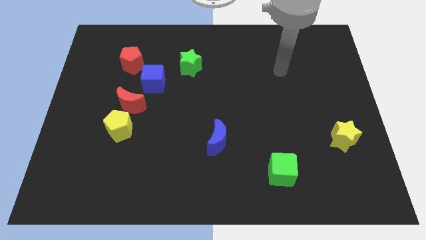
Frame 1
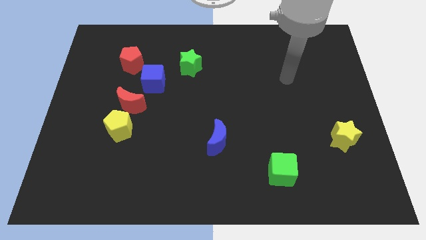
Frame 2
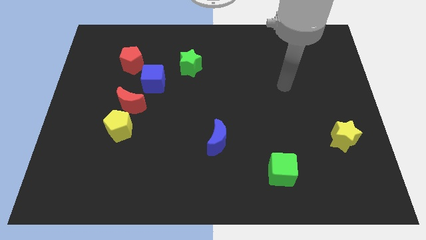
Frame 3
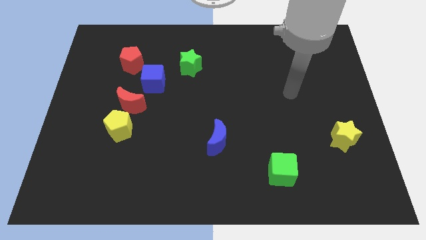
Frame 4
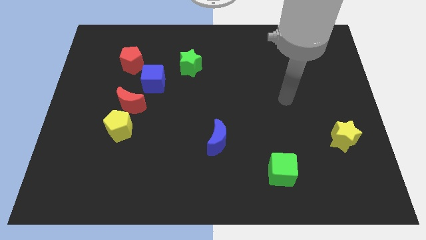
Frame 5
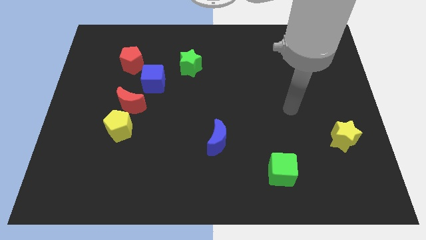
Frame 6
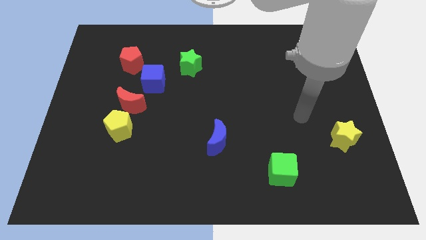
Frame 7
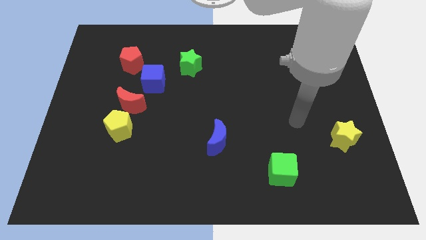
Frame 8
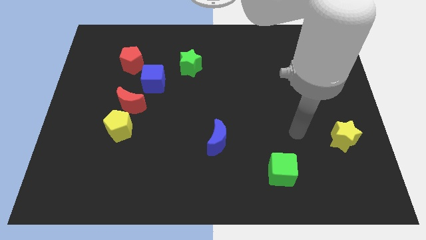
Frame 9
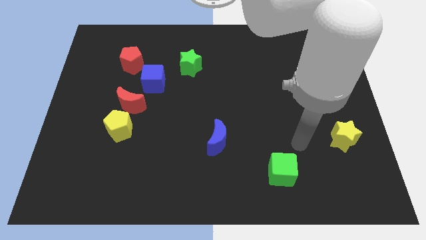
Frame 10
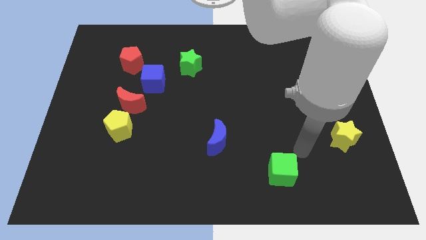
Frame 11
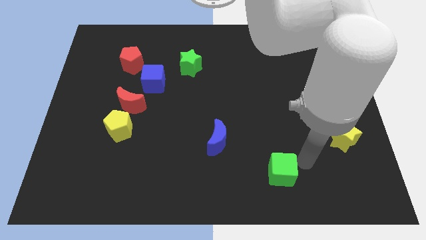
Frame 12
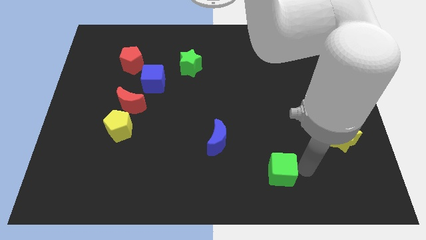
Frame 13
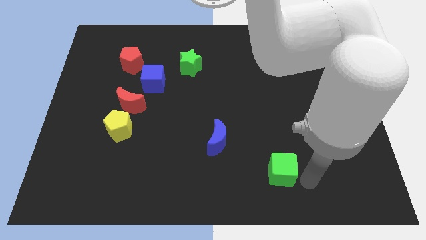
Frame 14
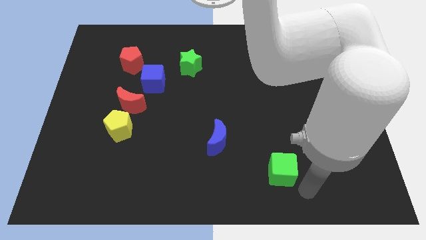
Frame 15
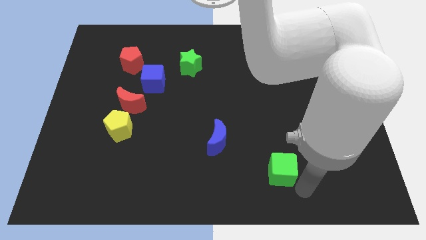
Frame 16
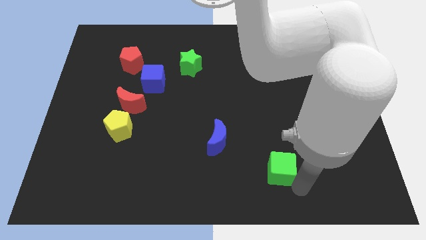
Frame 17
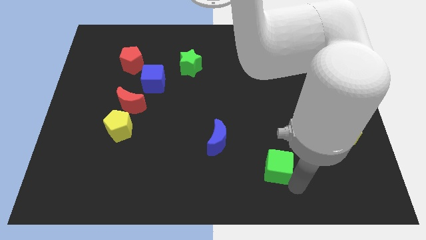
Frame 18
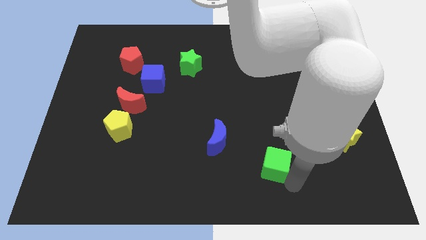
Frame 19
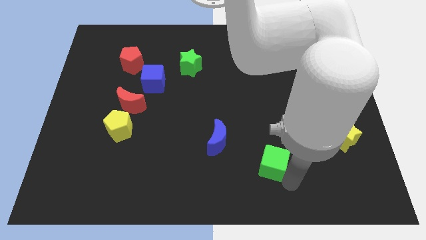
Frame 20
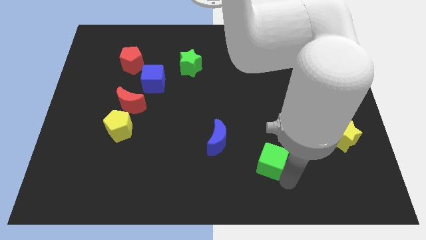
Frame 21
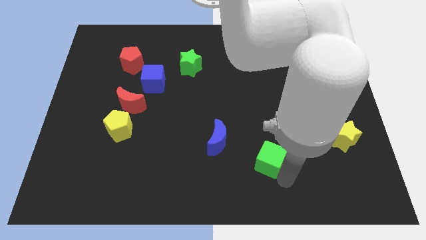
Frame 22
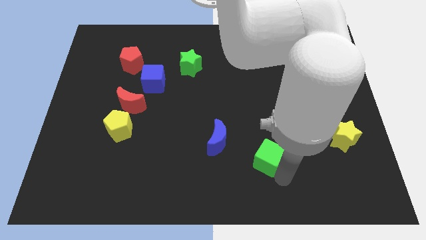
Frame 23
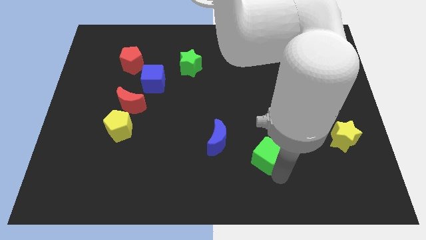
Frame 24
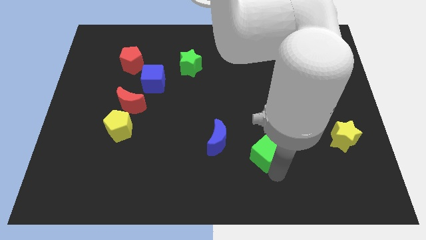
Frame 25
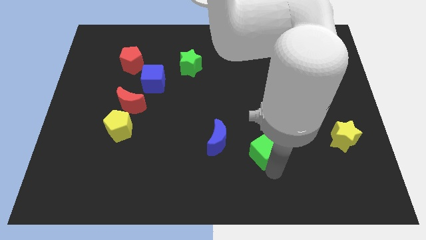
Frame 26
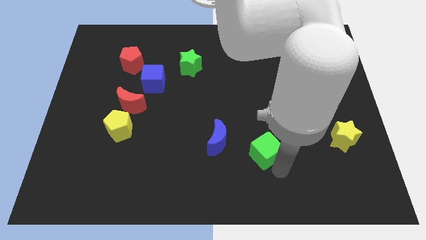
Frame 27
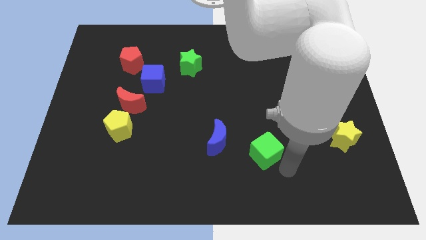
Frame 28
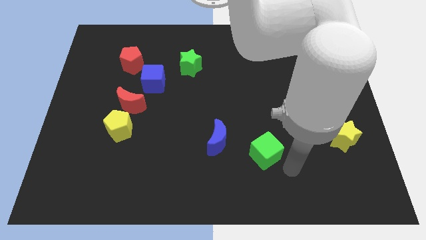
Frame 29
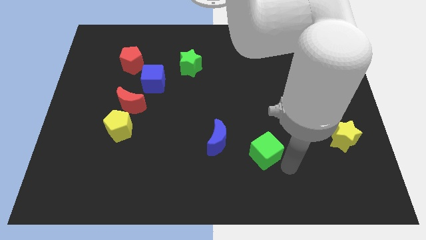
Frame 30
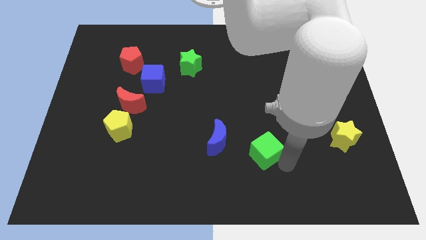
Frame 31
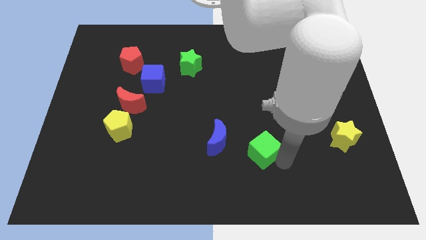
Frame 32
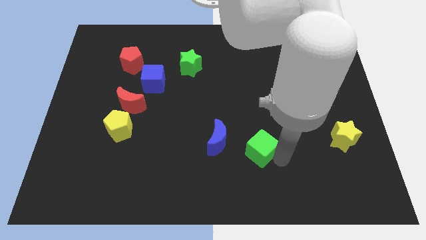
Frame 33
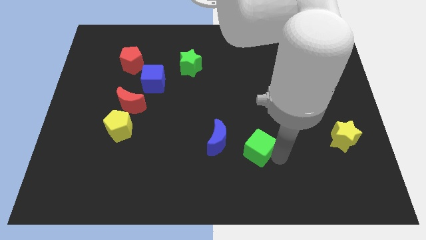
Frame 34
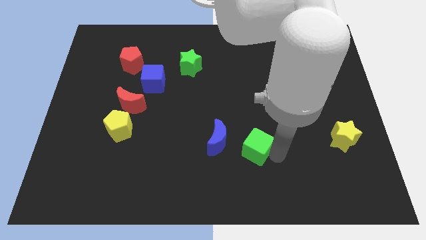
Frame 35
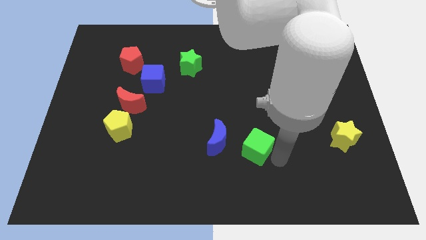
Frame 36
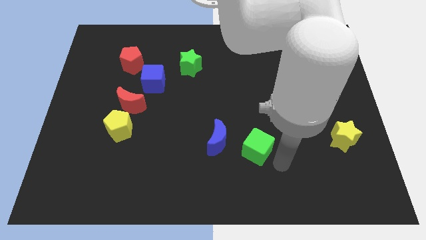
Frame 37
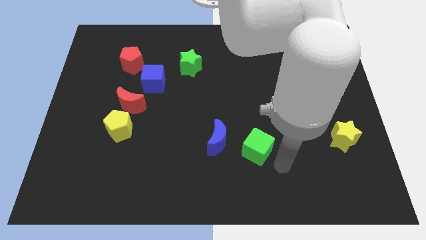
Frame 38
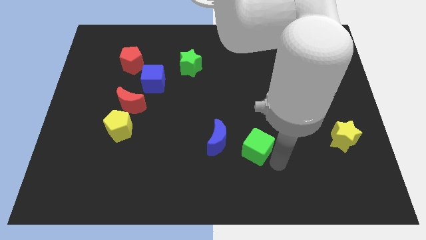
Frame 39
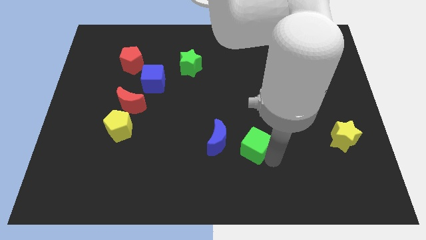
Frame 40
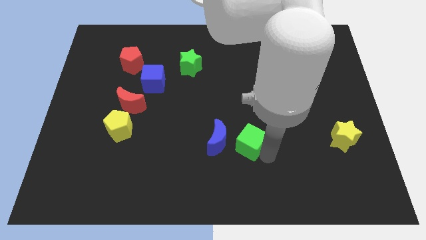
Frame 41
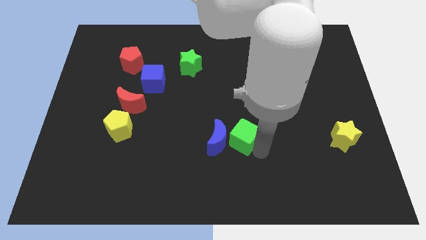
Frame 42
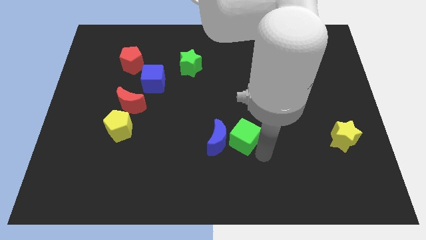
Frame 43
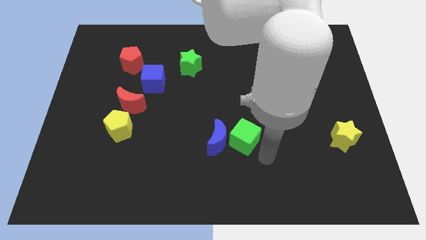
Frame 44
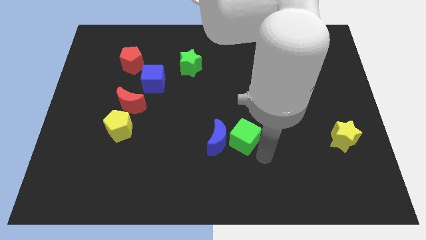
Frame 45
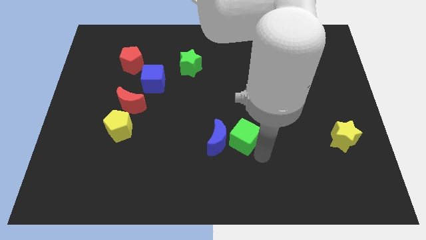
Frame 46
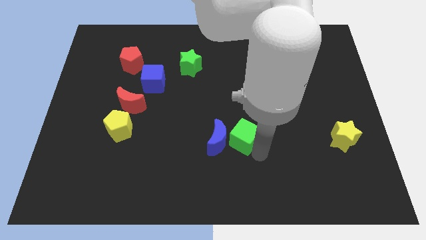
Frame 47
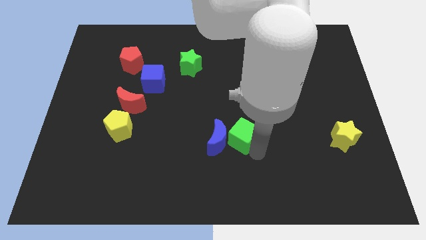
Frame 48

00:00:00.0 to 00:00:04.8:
move the green cube to the middle

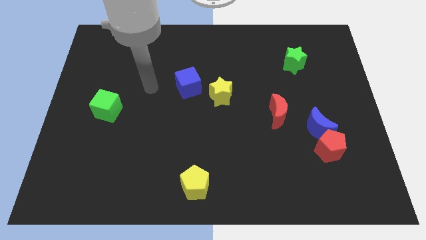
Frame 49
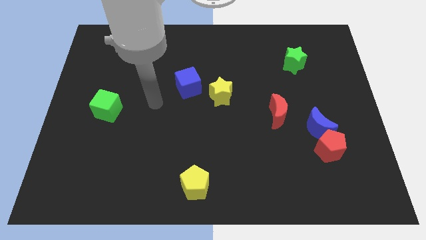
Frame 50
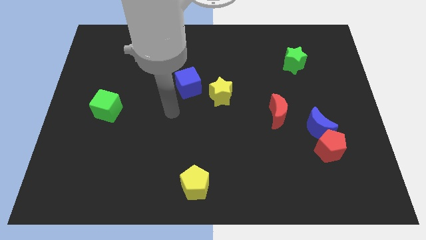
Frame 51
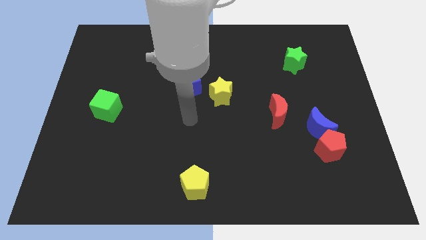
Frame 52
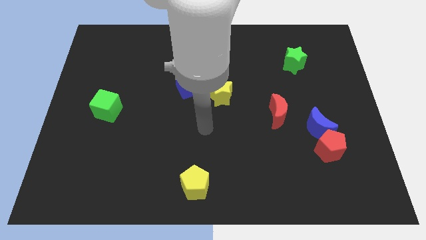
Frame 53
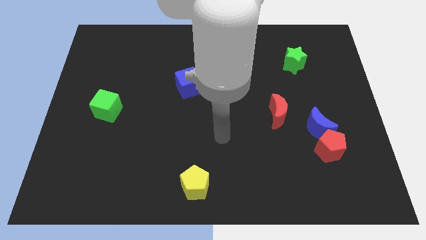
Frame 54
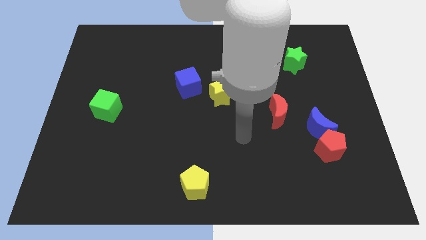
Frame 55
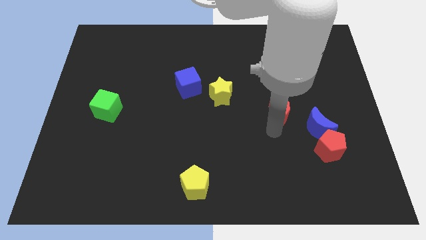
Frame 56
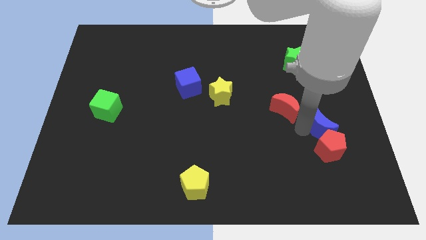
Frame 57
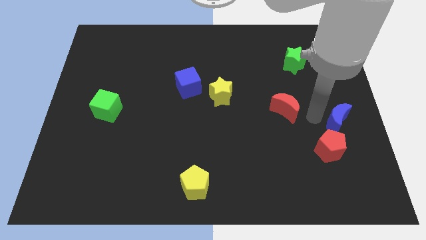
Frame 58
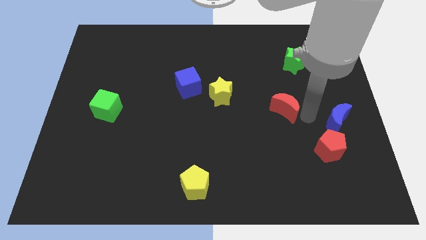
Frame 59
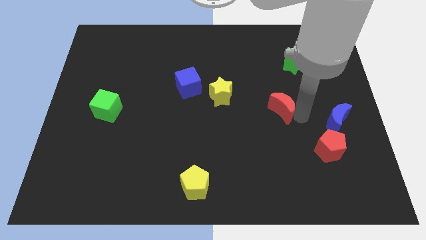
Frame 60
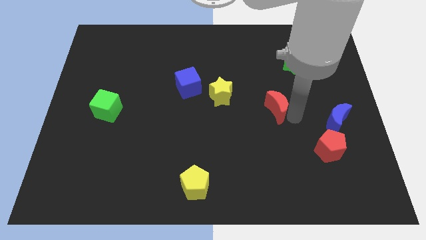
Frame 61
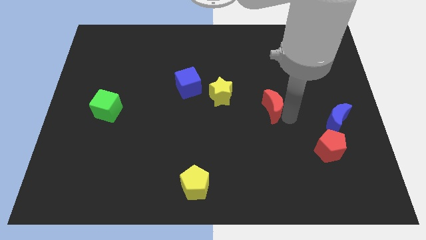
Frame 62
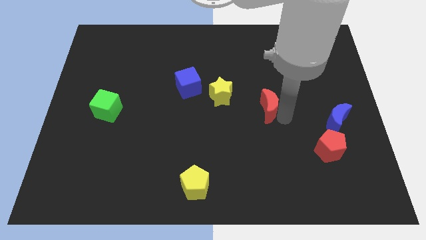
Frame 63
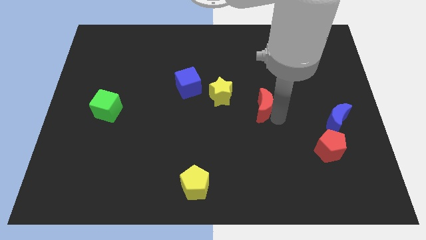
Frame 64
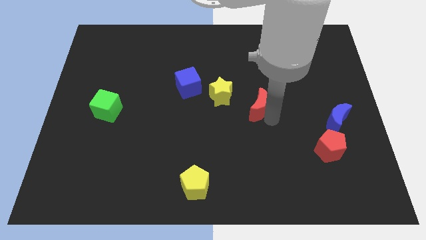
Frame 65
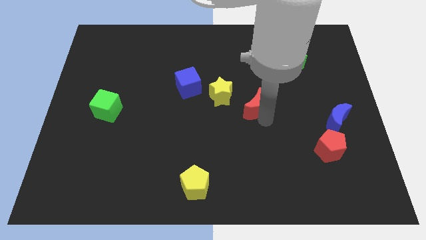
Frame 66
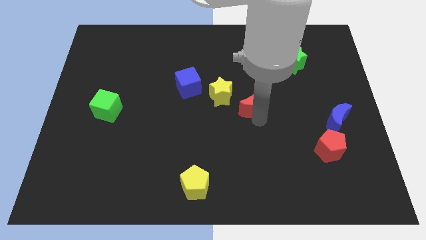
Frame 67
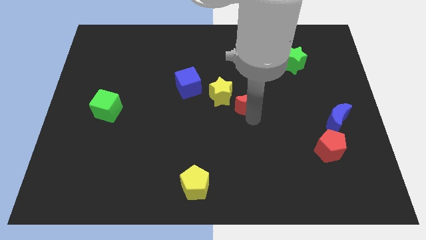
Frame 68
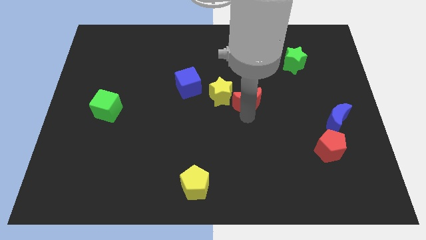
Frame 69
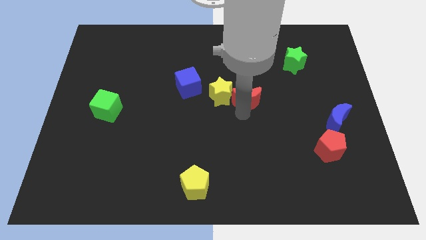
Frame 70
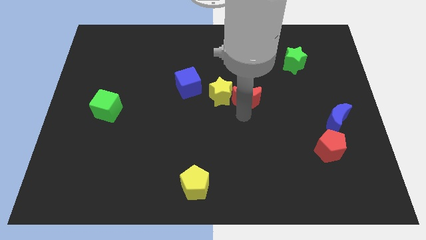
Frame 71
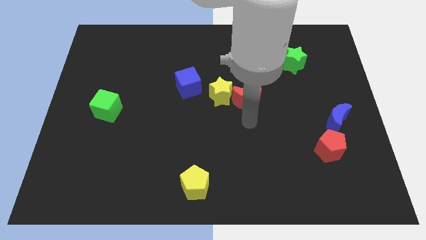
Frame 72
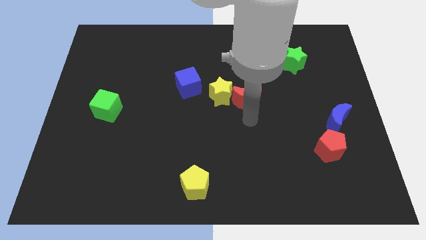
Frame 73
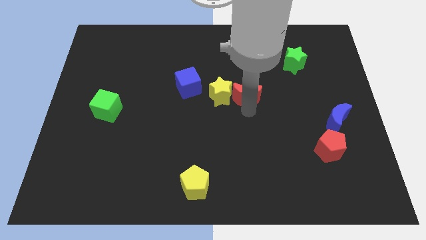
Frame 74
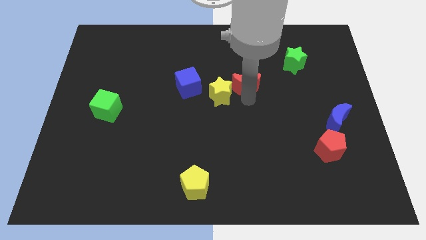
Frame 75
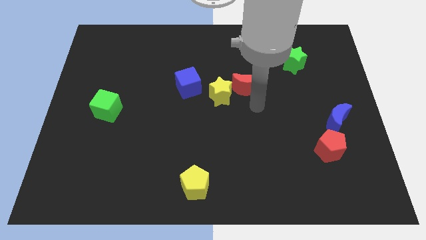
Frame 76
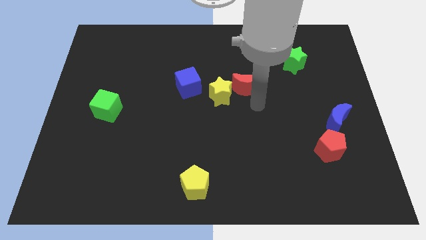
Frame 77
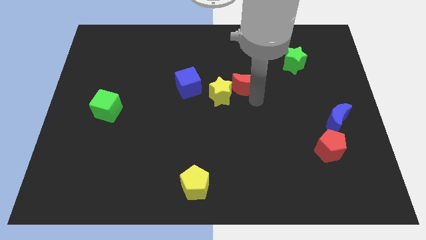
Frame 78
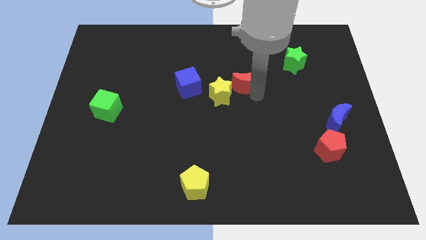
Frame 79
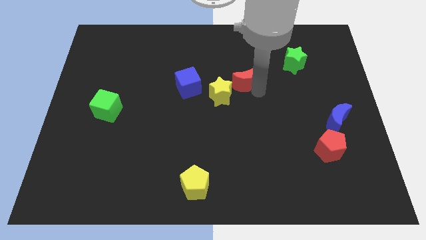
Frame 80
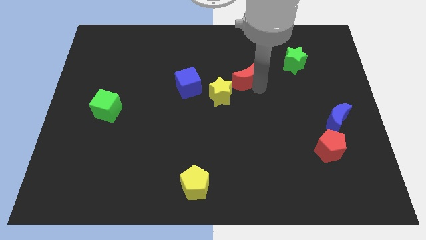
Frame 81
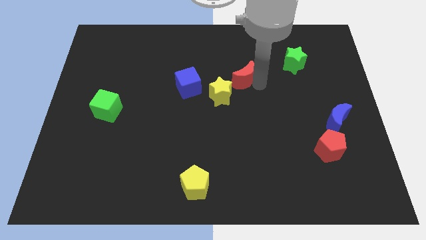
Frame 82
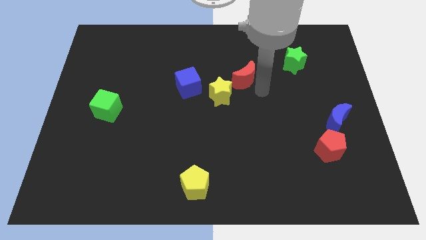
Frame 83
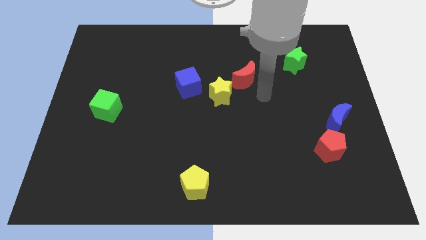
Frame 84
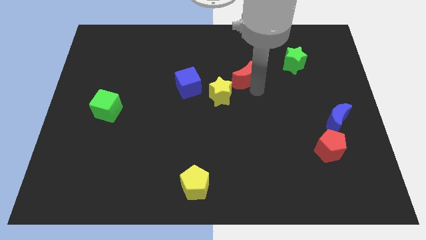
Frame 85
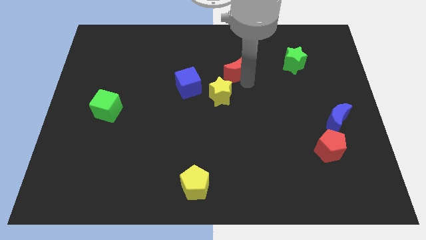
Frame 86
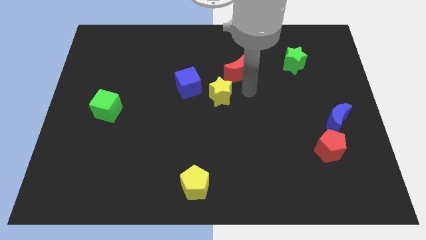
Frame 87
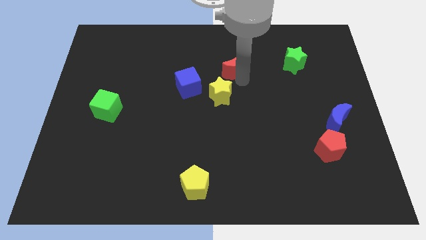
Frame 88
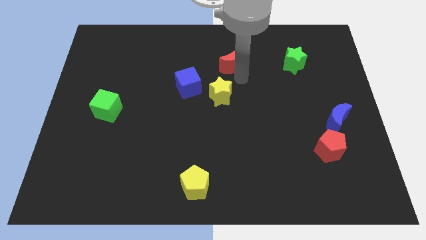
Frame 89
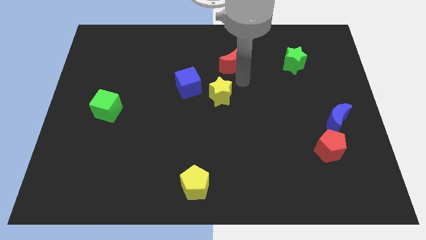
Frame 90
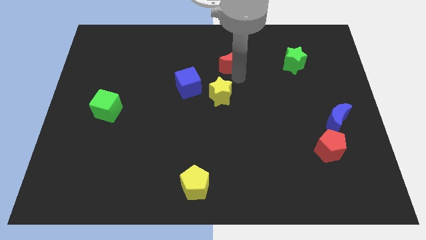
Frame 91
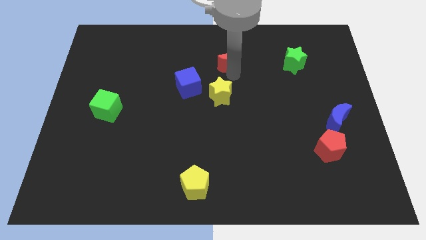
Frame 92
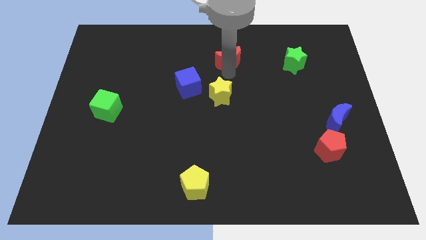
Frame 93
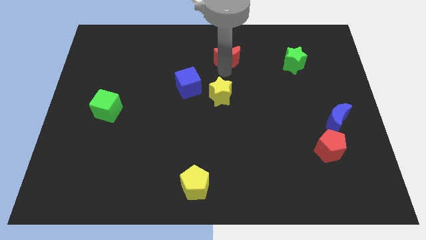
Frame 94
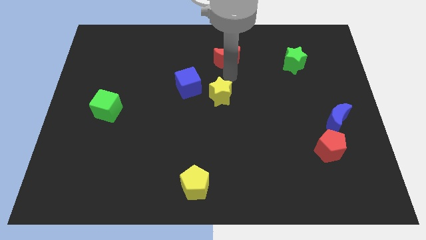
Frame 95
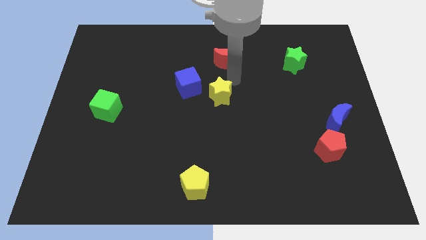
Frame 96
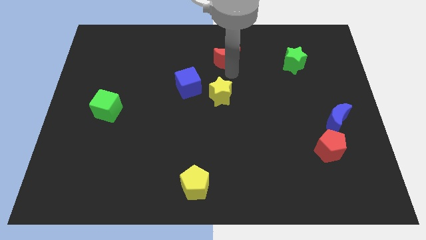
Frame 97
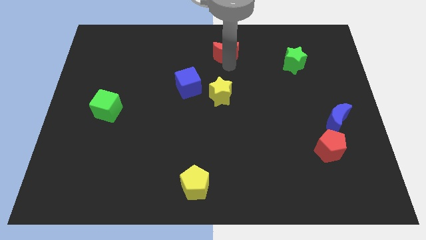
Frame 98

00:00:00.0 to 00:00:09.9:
put the red moon to the top side
